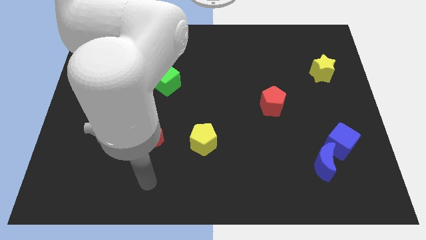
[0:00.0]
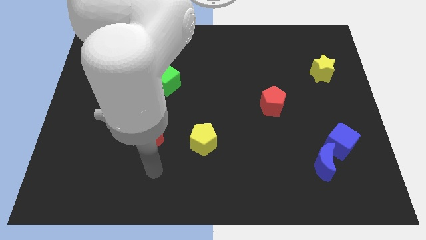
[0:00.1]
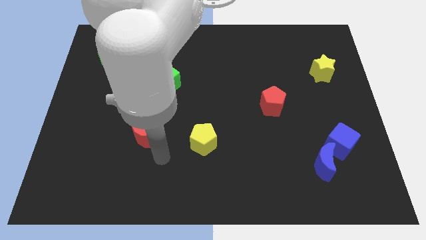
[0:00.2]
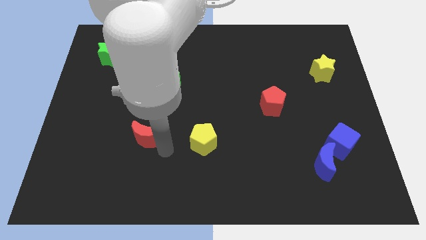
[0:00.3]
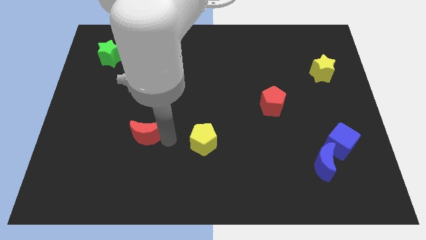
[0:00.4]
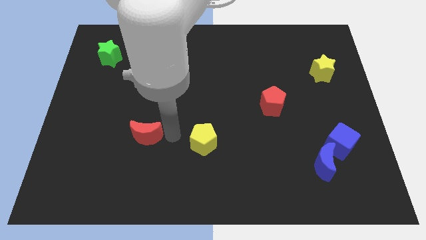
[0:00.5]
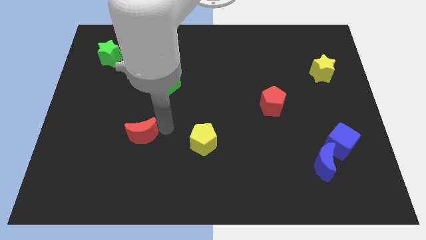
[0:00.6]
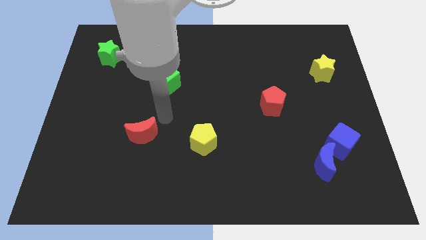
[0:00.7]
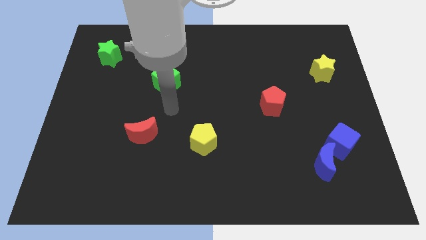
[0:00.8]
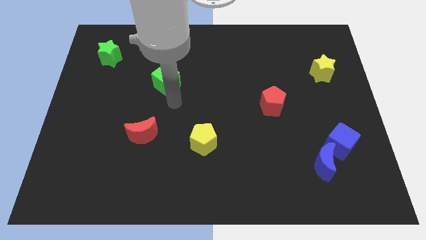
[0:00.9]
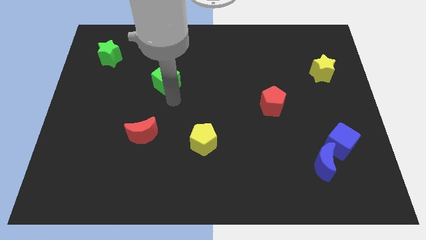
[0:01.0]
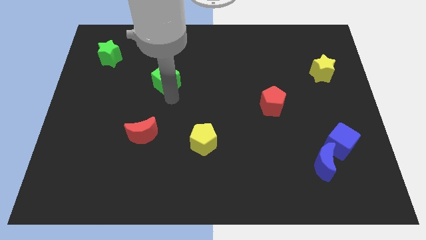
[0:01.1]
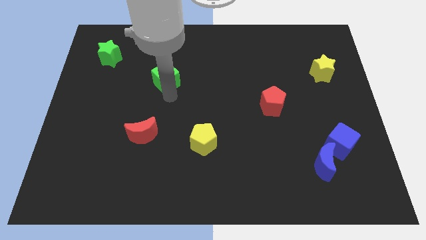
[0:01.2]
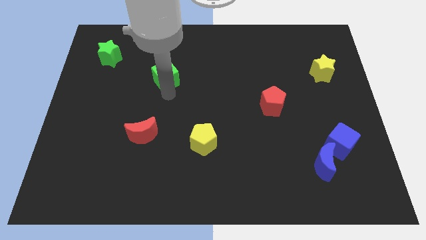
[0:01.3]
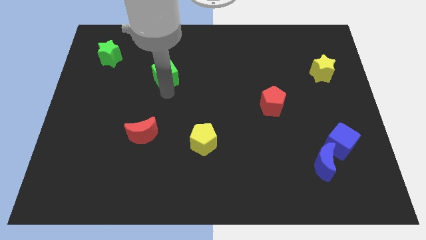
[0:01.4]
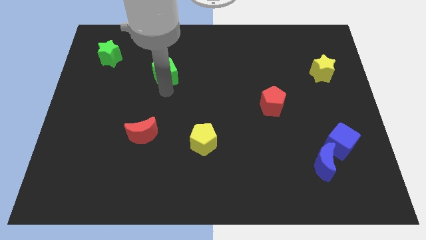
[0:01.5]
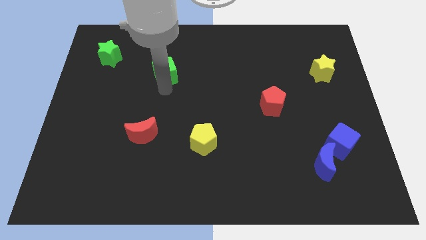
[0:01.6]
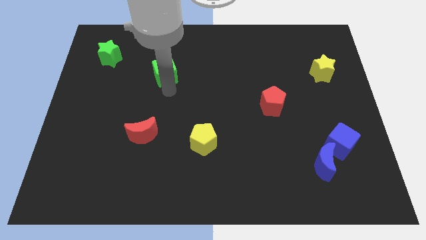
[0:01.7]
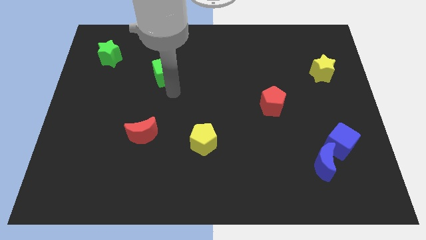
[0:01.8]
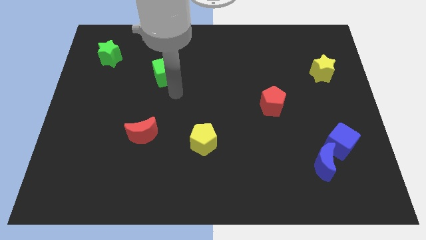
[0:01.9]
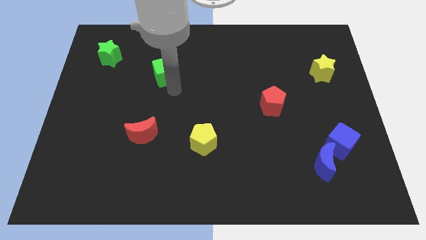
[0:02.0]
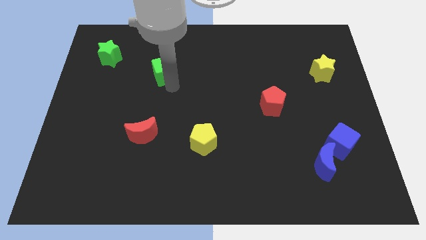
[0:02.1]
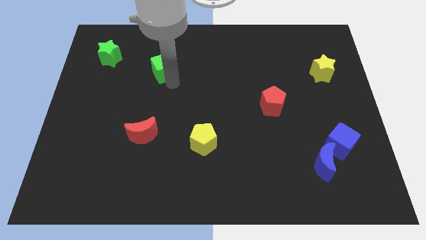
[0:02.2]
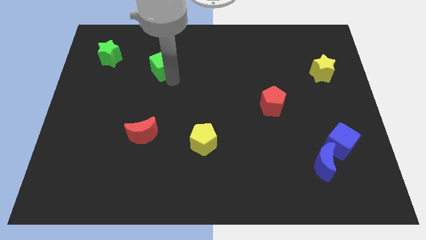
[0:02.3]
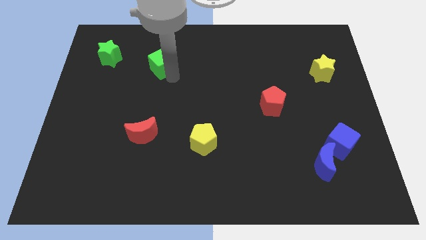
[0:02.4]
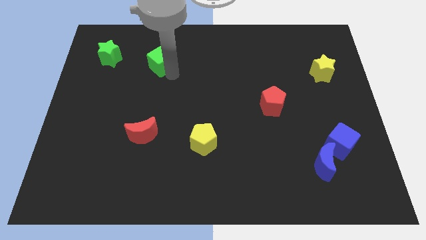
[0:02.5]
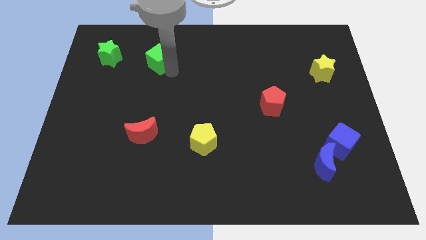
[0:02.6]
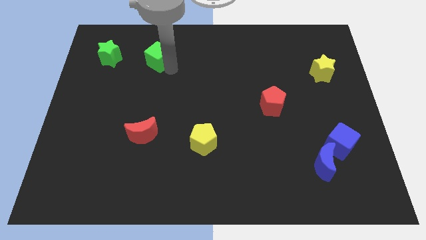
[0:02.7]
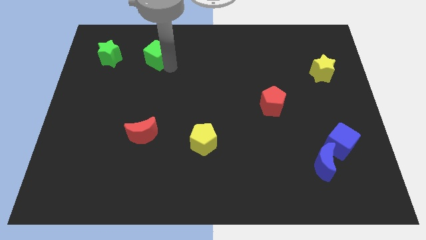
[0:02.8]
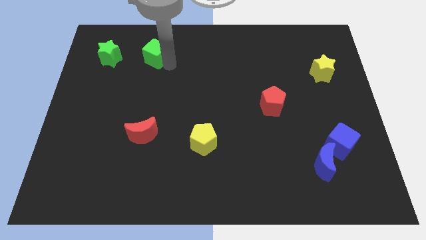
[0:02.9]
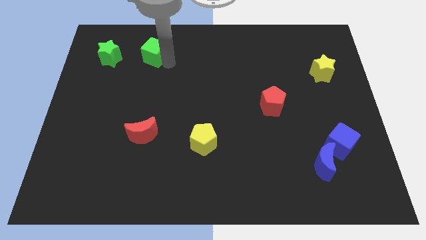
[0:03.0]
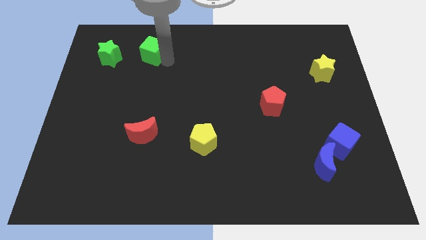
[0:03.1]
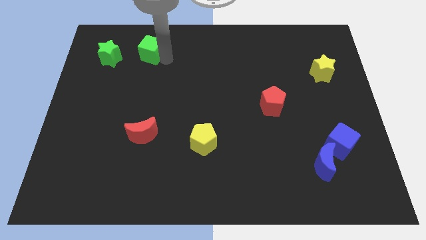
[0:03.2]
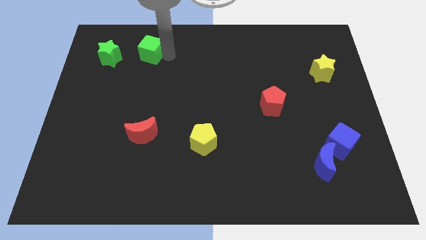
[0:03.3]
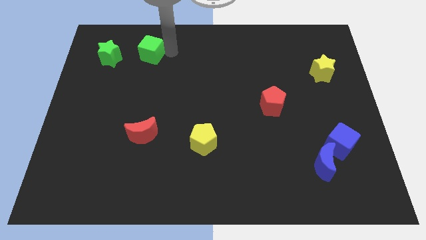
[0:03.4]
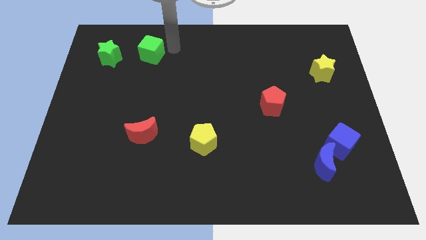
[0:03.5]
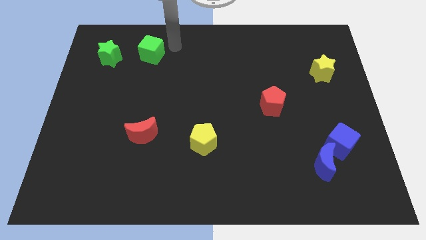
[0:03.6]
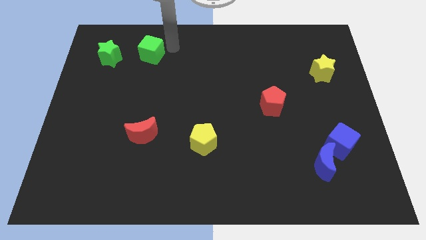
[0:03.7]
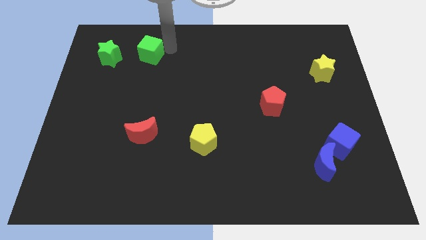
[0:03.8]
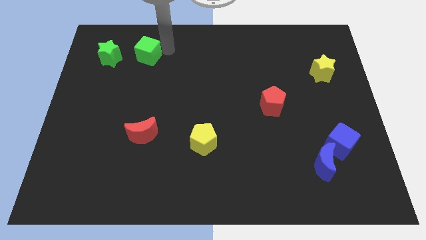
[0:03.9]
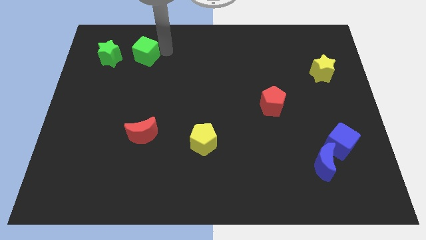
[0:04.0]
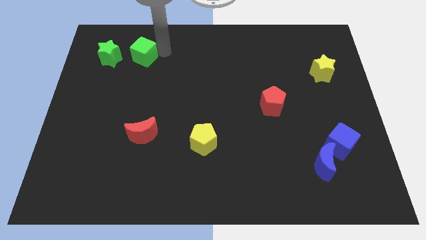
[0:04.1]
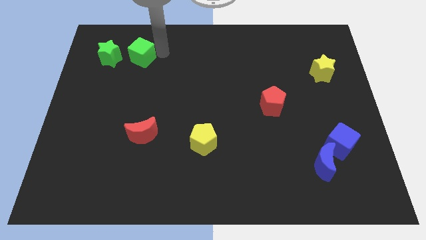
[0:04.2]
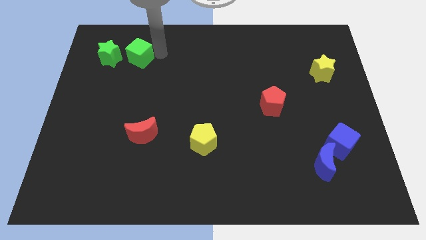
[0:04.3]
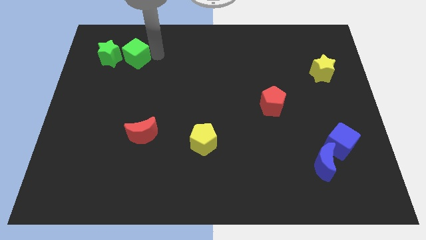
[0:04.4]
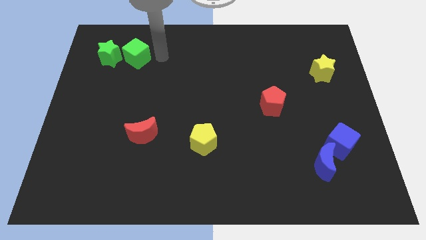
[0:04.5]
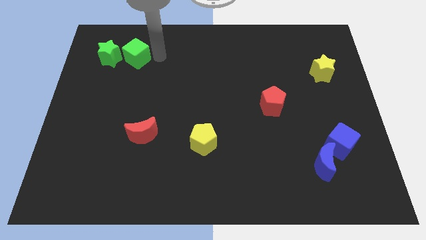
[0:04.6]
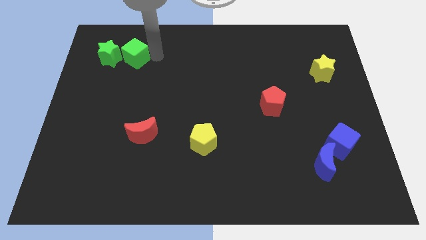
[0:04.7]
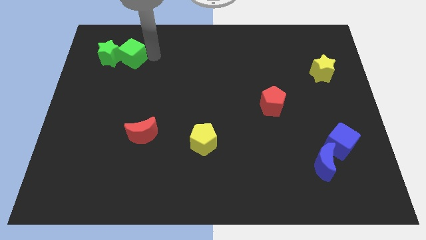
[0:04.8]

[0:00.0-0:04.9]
push the green cube next to the green star

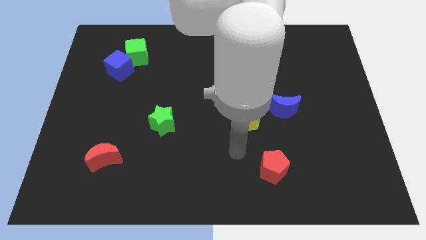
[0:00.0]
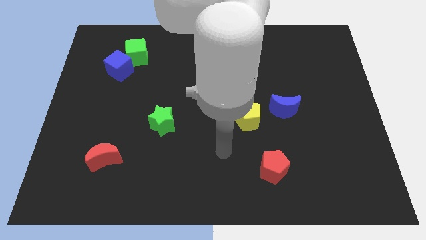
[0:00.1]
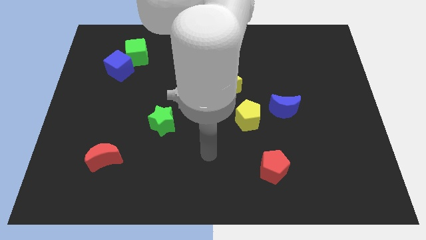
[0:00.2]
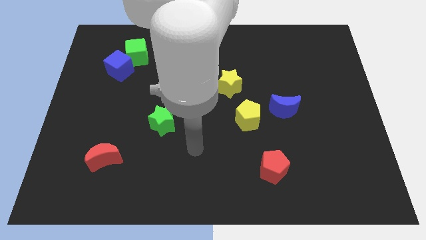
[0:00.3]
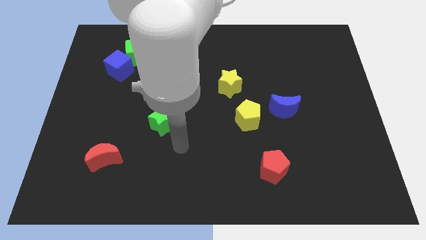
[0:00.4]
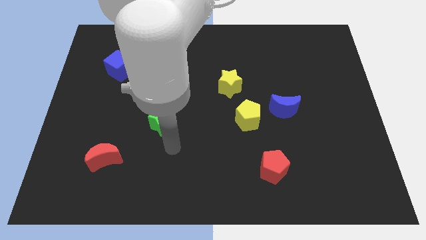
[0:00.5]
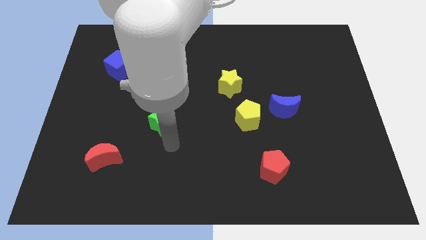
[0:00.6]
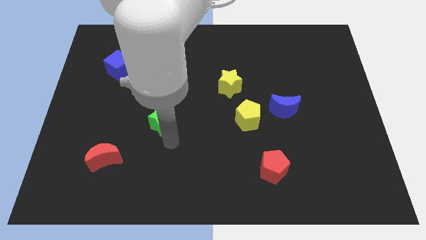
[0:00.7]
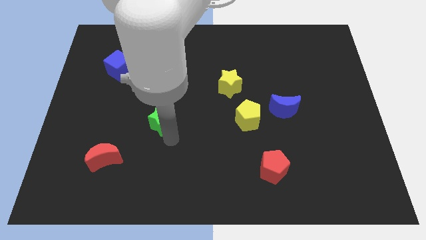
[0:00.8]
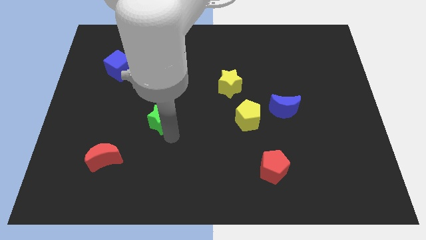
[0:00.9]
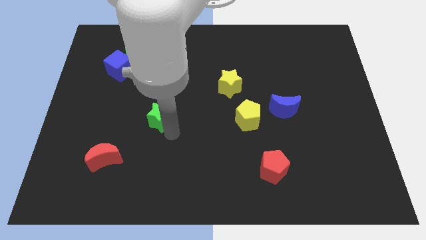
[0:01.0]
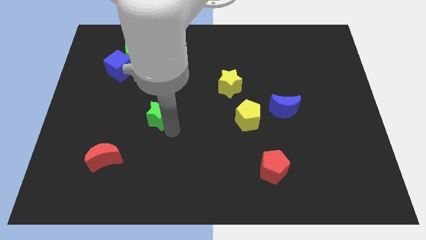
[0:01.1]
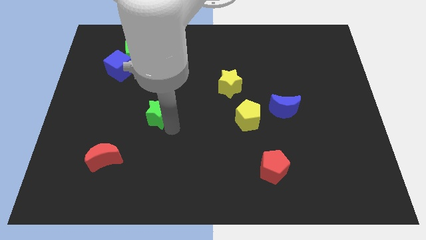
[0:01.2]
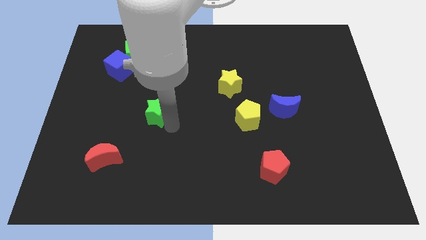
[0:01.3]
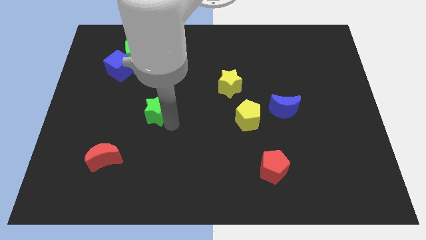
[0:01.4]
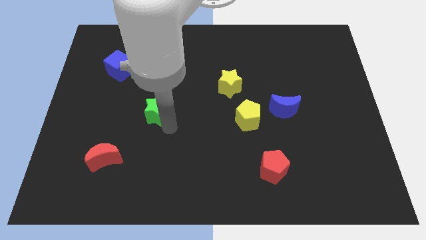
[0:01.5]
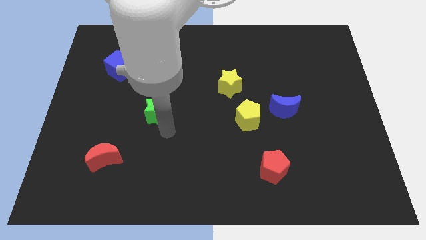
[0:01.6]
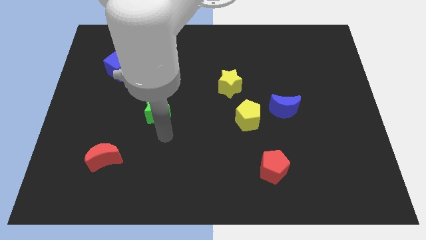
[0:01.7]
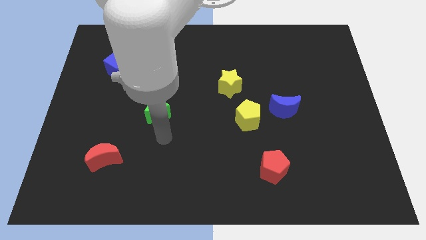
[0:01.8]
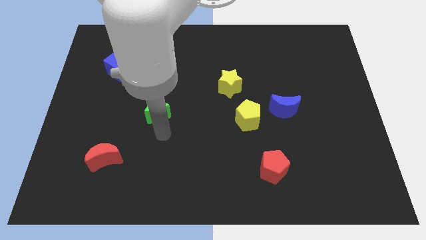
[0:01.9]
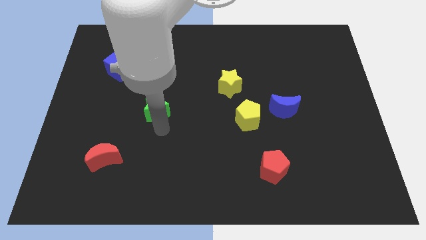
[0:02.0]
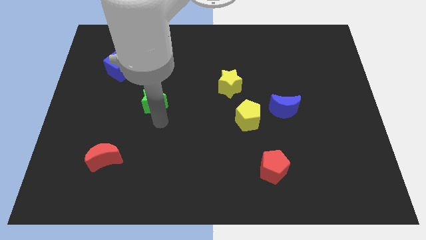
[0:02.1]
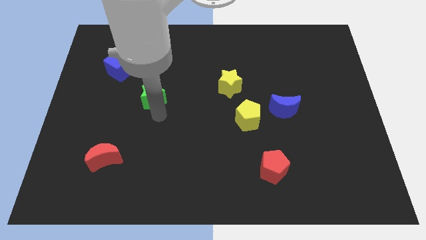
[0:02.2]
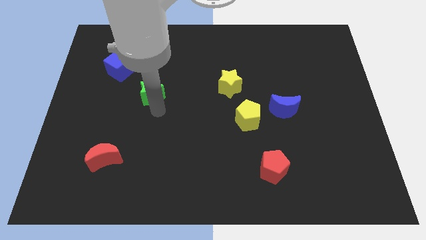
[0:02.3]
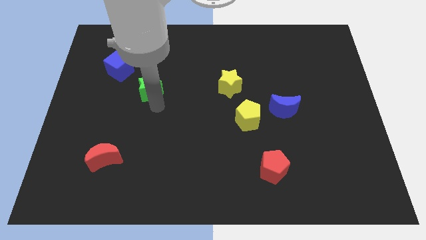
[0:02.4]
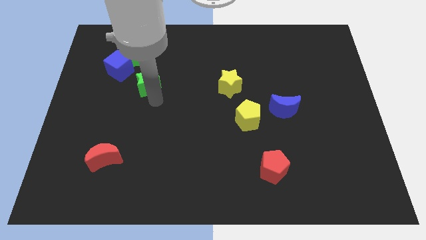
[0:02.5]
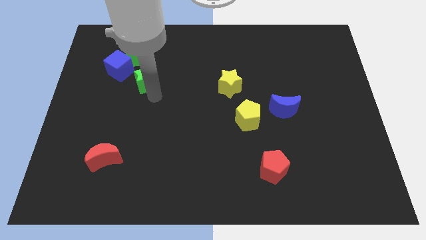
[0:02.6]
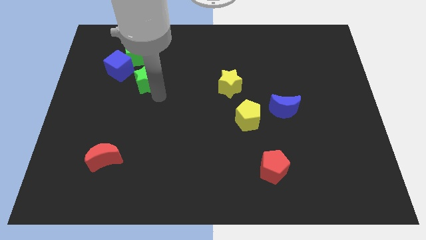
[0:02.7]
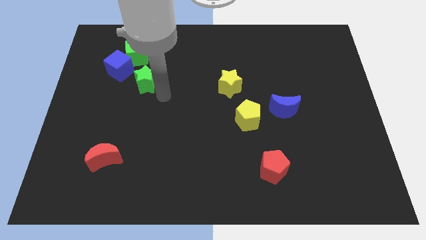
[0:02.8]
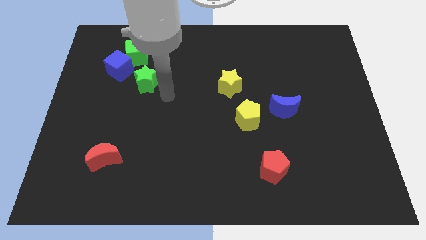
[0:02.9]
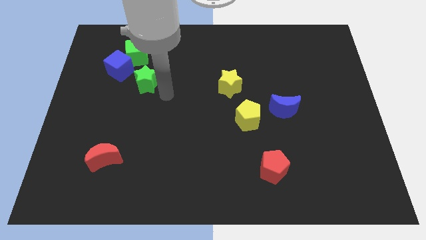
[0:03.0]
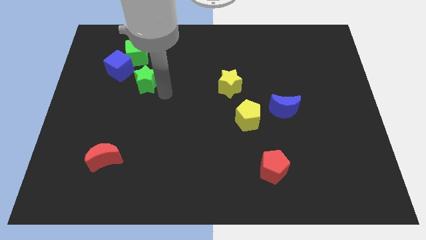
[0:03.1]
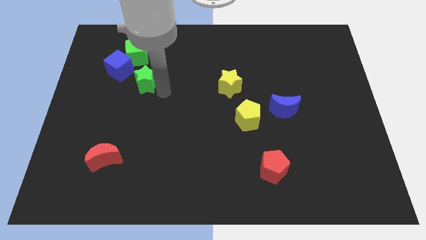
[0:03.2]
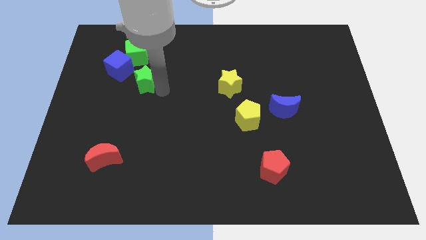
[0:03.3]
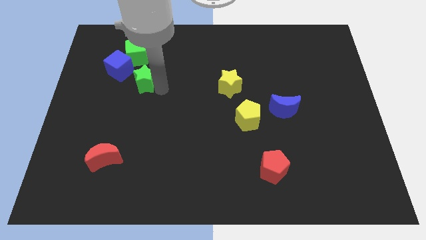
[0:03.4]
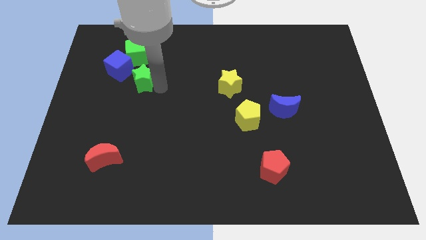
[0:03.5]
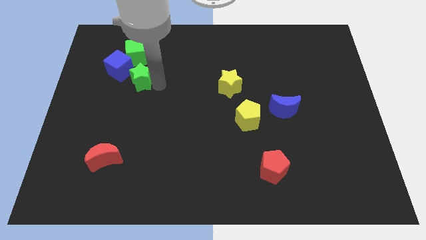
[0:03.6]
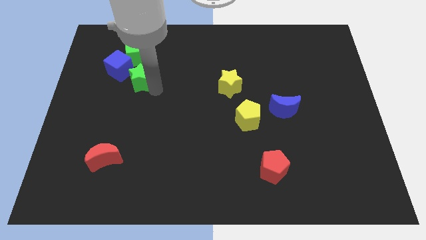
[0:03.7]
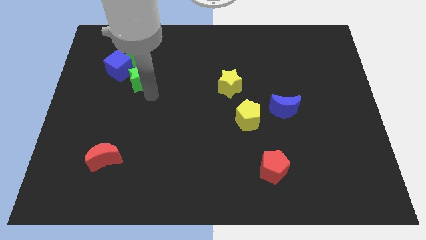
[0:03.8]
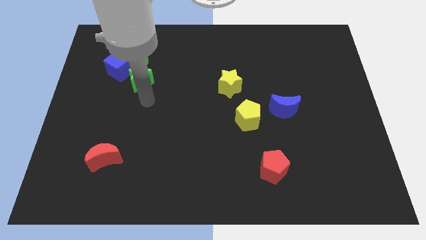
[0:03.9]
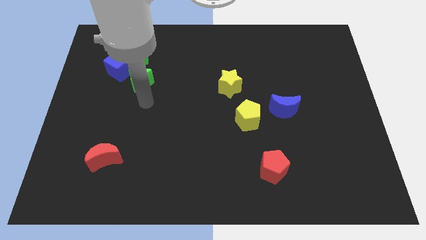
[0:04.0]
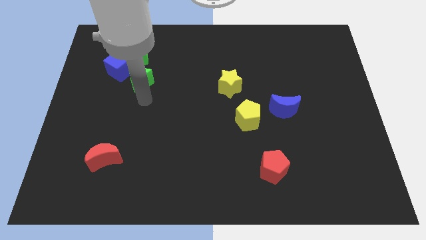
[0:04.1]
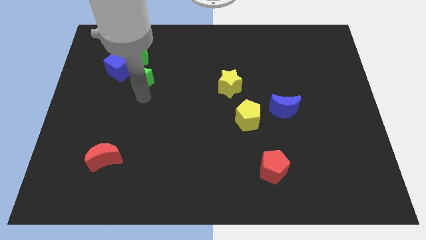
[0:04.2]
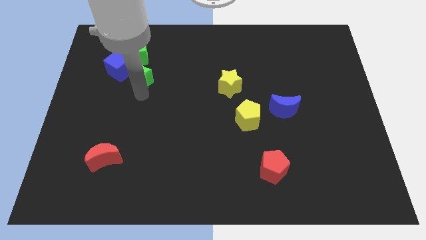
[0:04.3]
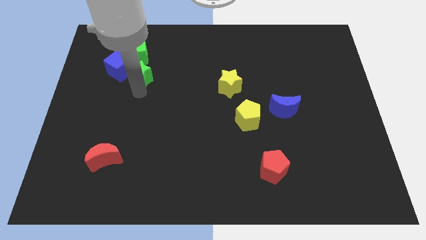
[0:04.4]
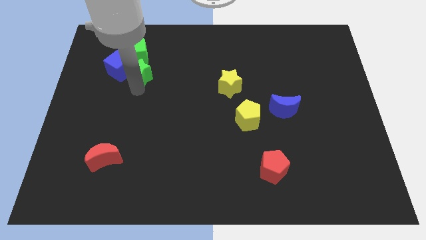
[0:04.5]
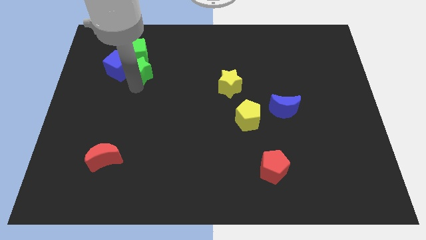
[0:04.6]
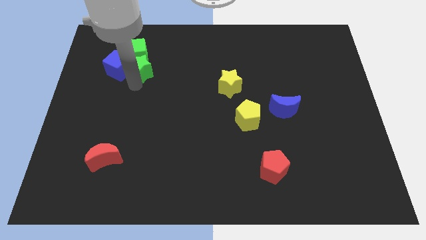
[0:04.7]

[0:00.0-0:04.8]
put the green star towards the green cube
